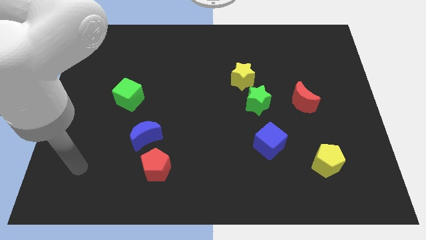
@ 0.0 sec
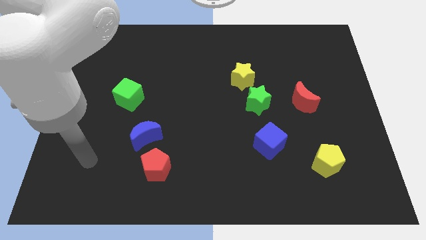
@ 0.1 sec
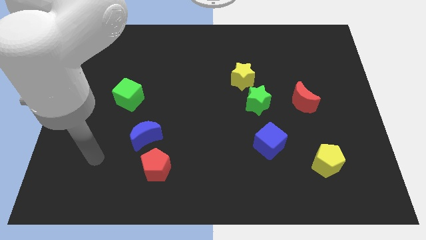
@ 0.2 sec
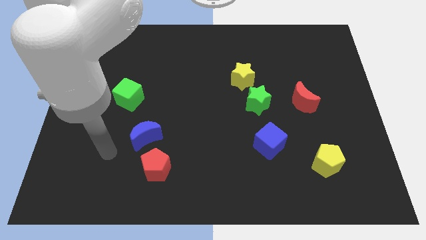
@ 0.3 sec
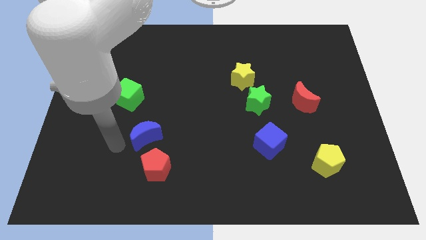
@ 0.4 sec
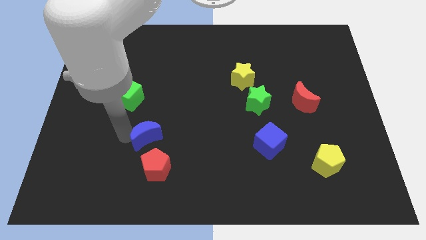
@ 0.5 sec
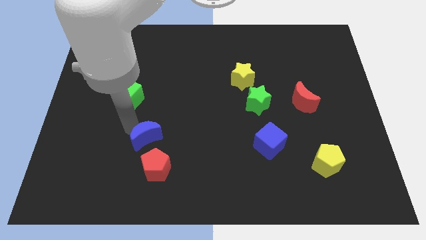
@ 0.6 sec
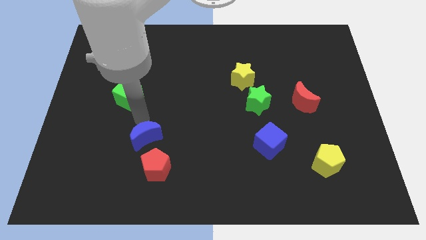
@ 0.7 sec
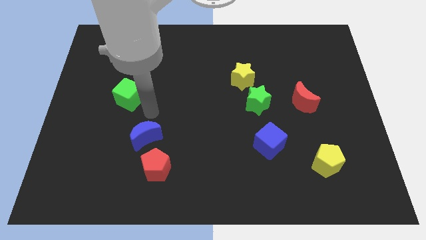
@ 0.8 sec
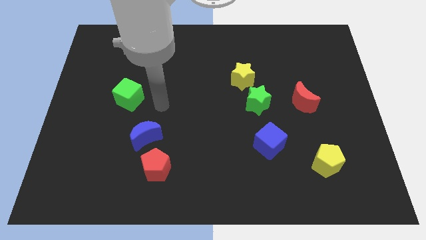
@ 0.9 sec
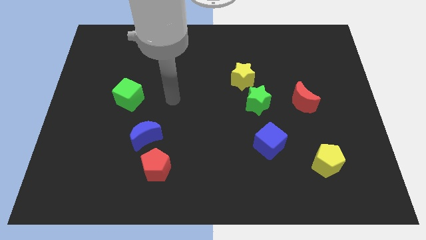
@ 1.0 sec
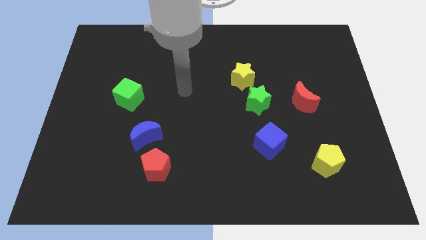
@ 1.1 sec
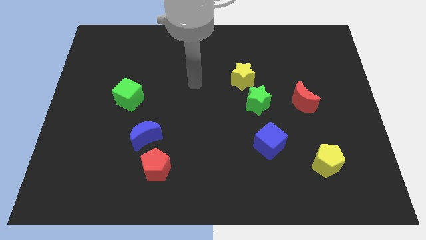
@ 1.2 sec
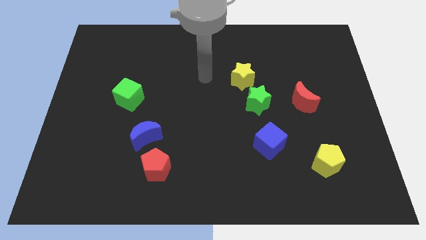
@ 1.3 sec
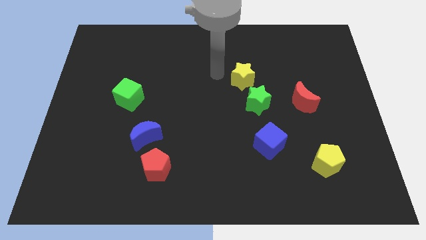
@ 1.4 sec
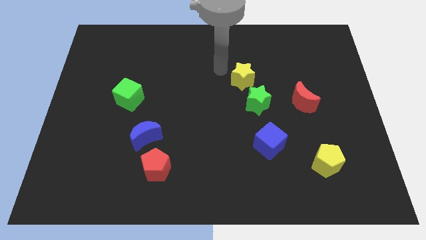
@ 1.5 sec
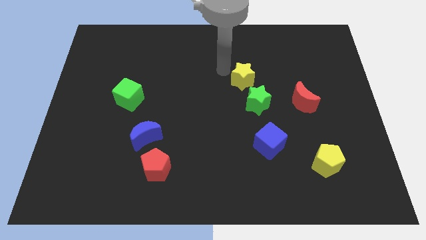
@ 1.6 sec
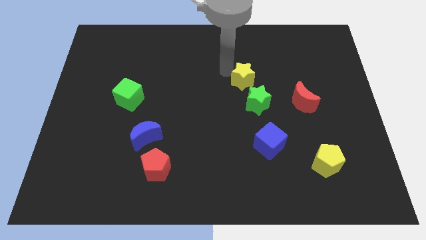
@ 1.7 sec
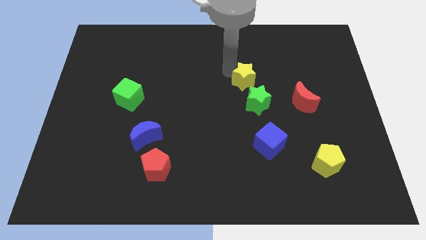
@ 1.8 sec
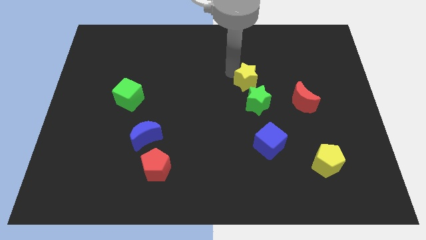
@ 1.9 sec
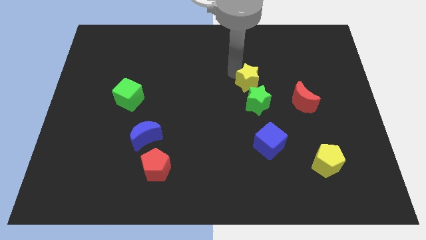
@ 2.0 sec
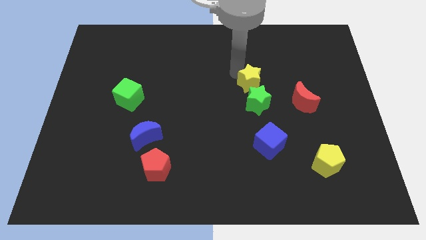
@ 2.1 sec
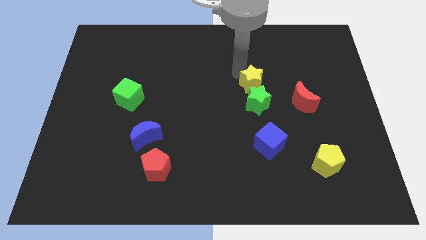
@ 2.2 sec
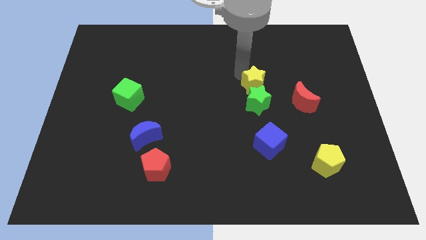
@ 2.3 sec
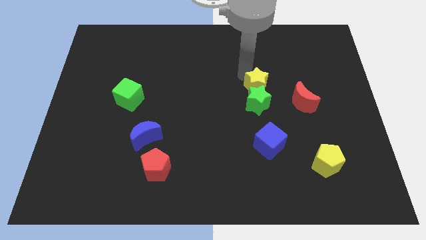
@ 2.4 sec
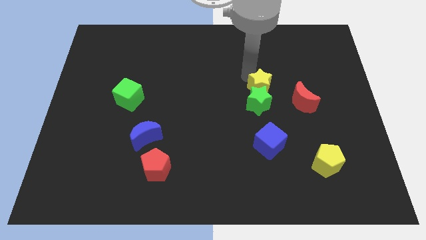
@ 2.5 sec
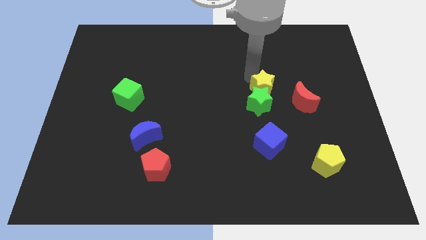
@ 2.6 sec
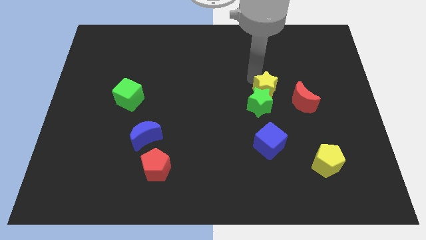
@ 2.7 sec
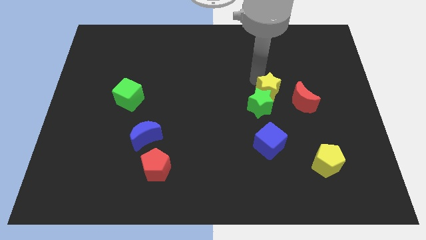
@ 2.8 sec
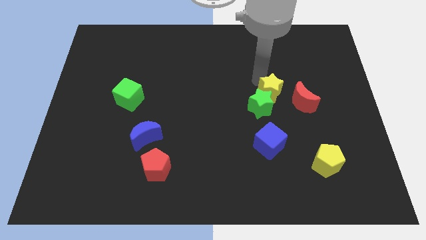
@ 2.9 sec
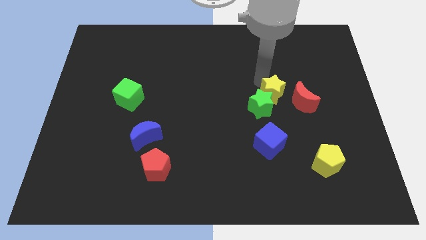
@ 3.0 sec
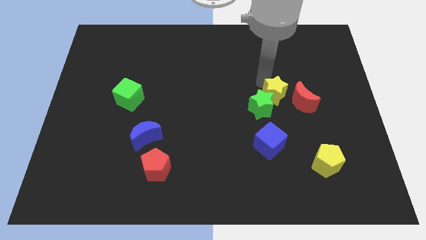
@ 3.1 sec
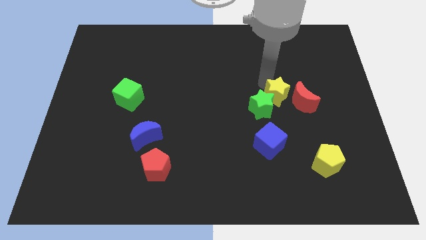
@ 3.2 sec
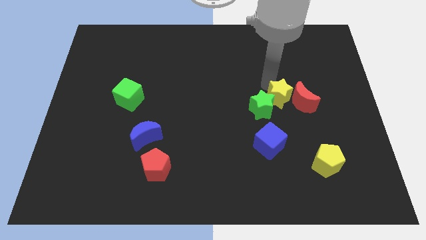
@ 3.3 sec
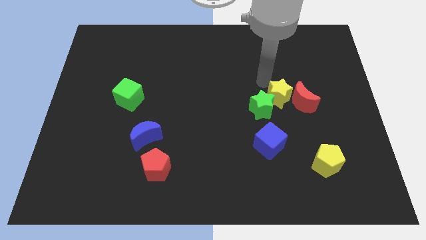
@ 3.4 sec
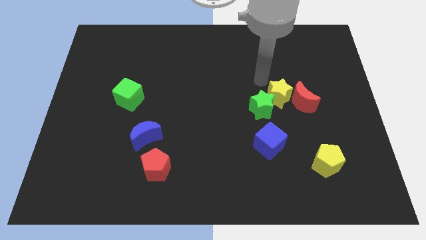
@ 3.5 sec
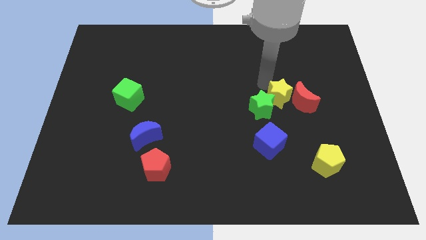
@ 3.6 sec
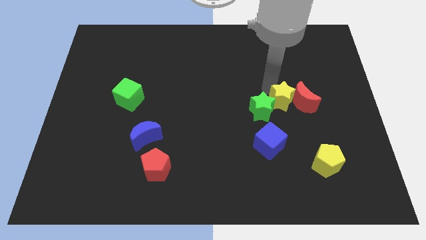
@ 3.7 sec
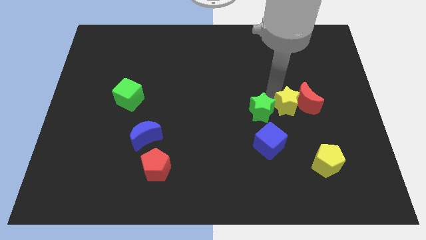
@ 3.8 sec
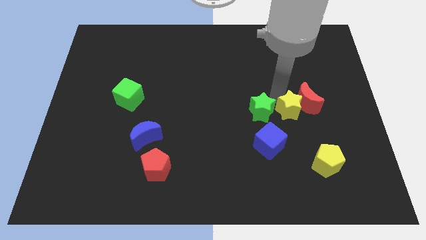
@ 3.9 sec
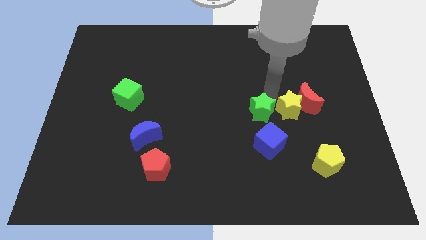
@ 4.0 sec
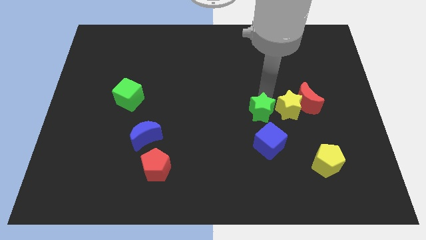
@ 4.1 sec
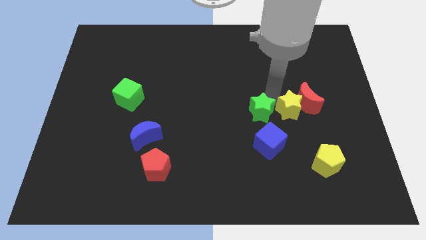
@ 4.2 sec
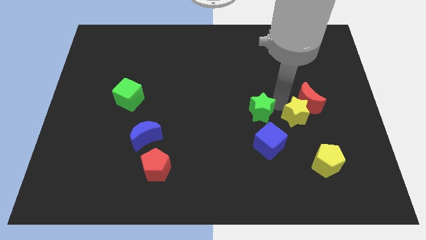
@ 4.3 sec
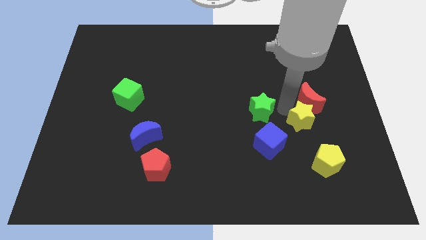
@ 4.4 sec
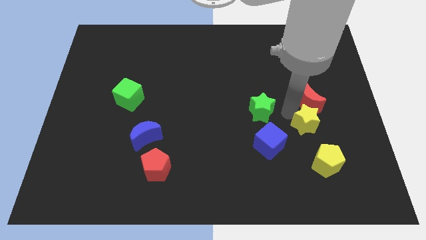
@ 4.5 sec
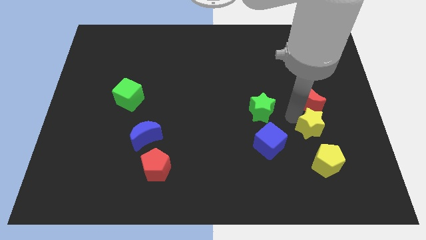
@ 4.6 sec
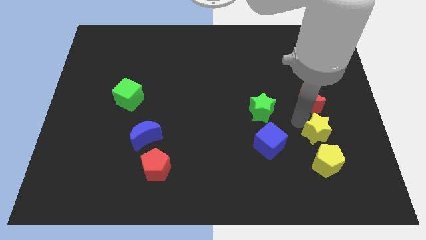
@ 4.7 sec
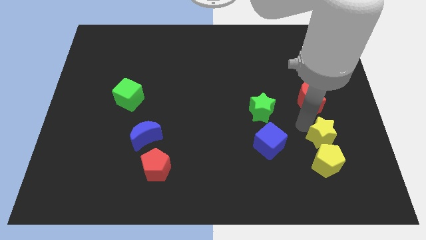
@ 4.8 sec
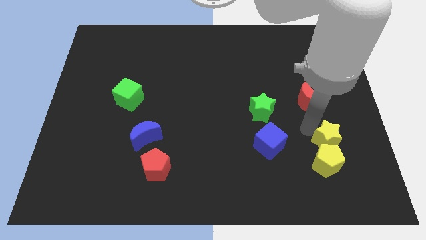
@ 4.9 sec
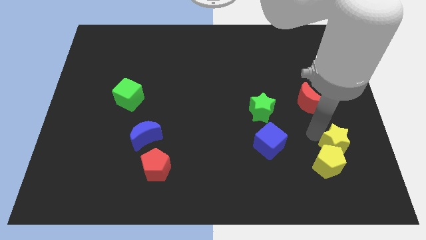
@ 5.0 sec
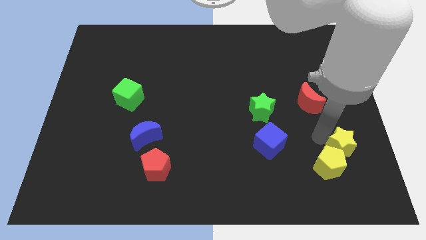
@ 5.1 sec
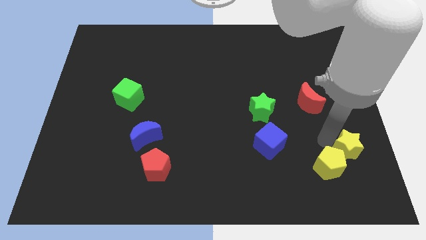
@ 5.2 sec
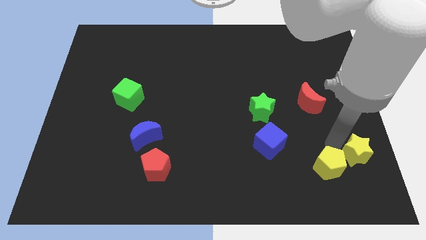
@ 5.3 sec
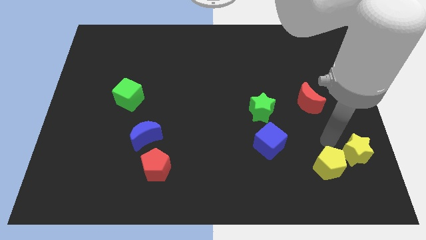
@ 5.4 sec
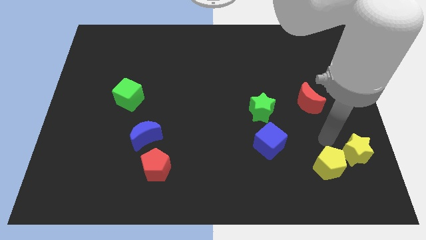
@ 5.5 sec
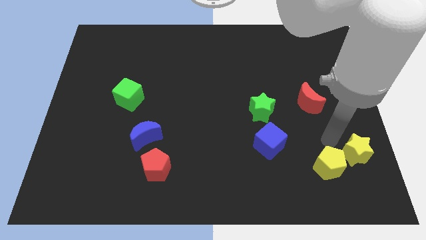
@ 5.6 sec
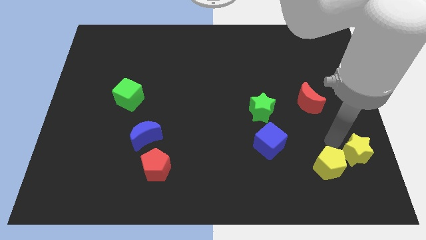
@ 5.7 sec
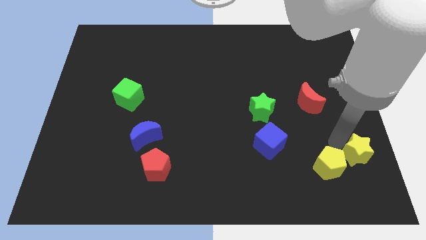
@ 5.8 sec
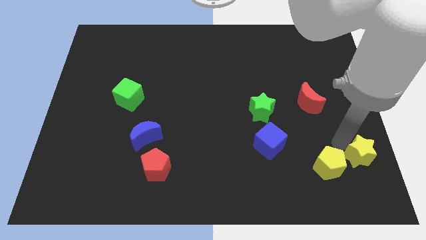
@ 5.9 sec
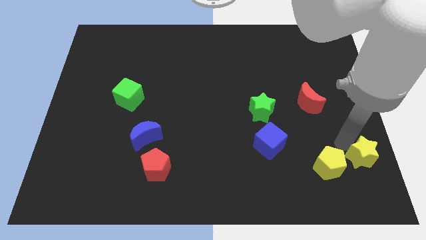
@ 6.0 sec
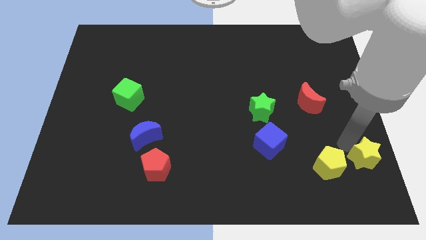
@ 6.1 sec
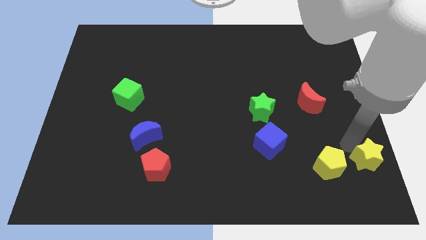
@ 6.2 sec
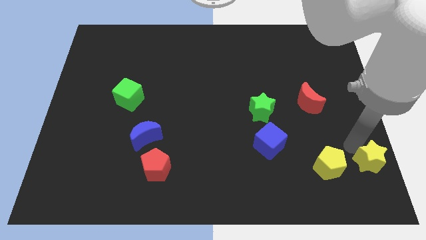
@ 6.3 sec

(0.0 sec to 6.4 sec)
move the yellow star to the bottom right corner
